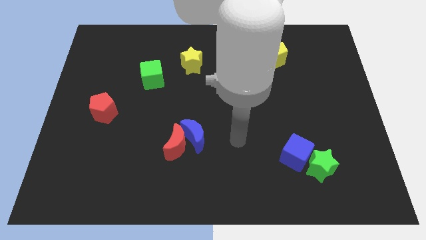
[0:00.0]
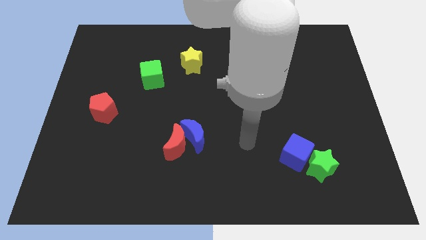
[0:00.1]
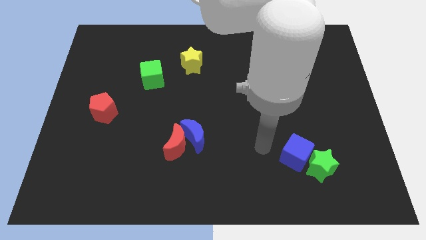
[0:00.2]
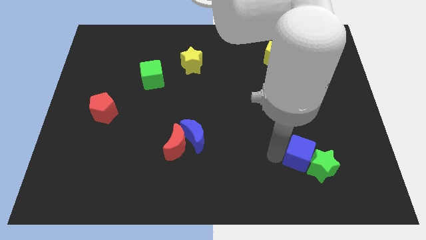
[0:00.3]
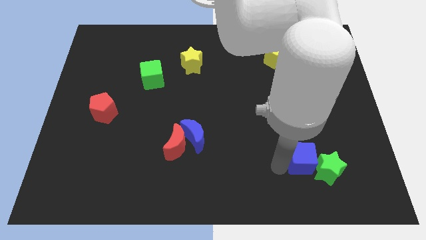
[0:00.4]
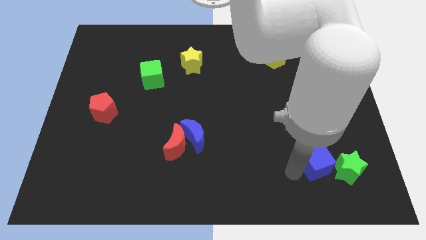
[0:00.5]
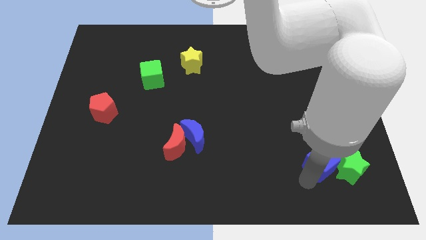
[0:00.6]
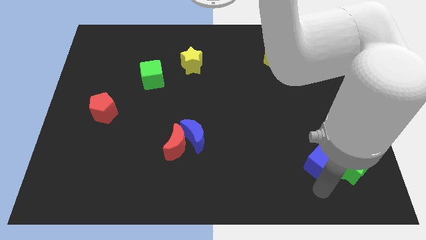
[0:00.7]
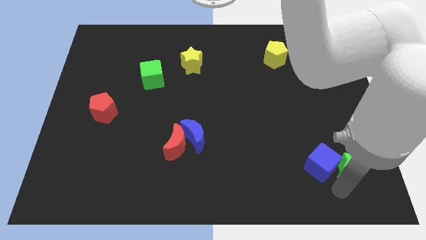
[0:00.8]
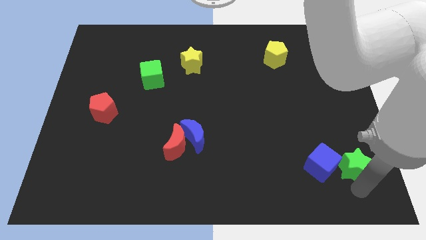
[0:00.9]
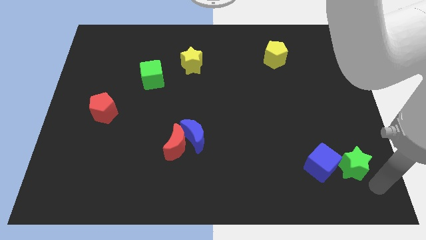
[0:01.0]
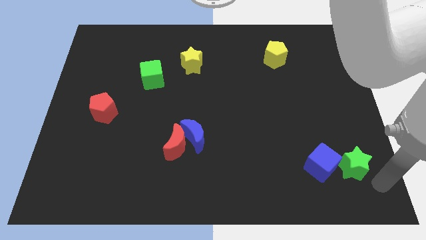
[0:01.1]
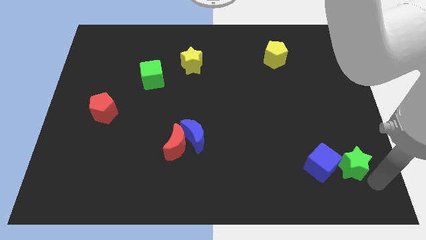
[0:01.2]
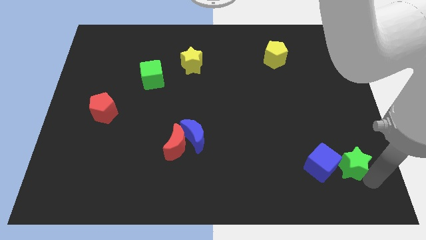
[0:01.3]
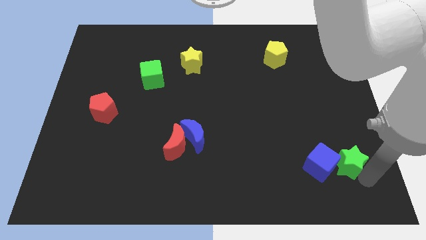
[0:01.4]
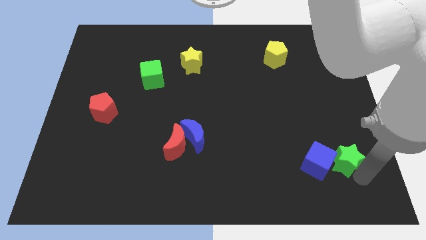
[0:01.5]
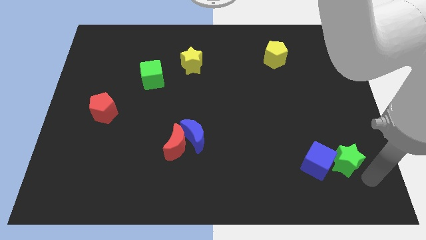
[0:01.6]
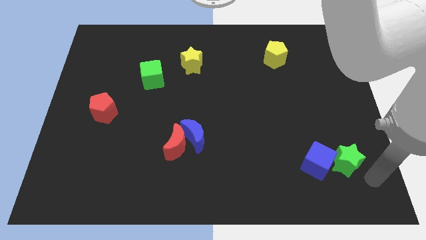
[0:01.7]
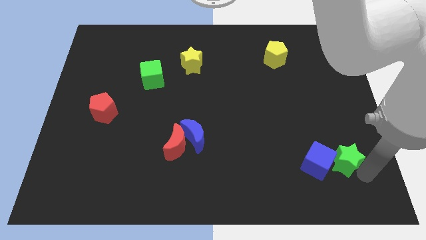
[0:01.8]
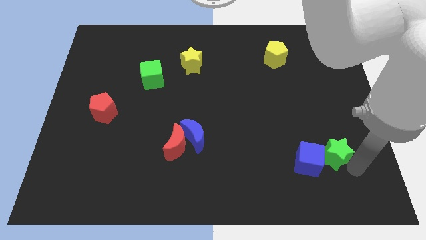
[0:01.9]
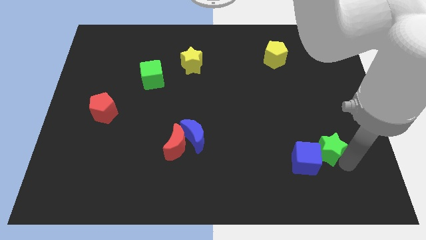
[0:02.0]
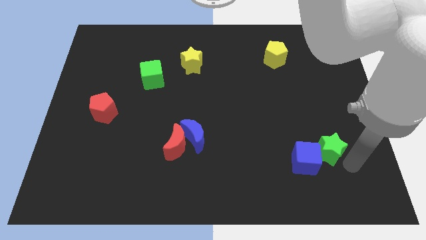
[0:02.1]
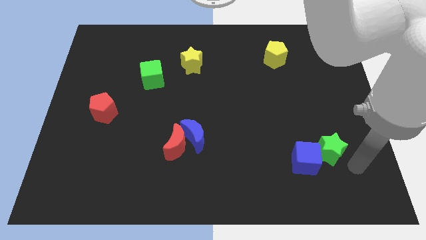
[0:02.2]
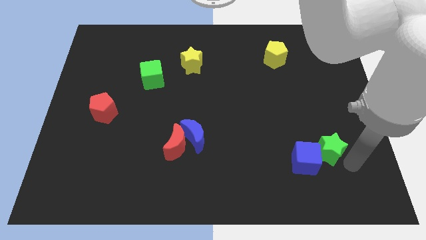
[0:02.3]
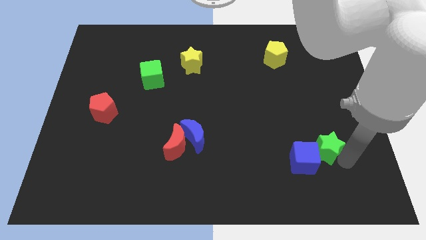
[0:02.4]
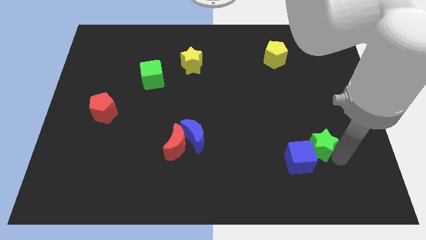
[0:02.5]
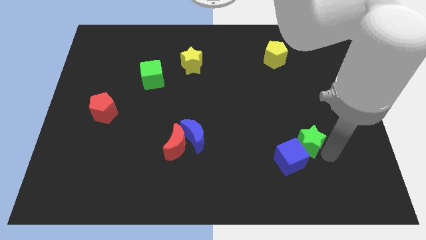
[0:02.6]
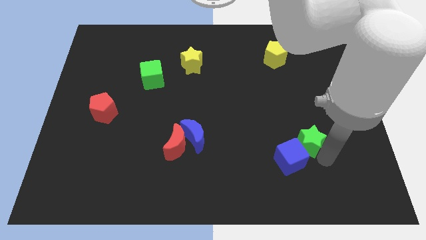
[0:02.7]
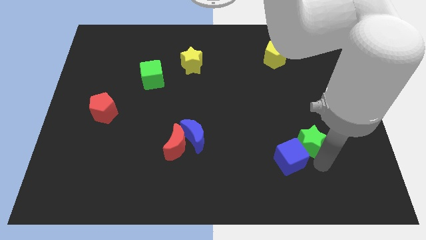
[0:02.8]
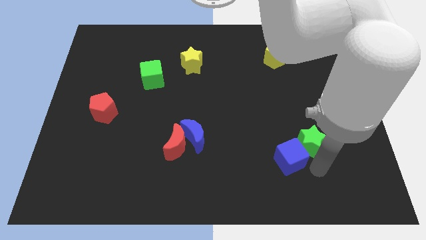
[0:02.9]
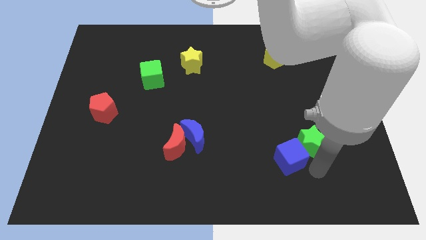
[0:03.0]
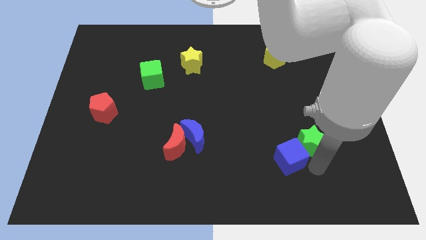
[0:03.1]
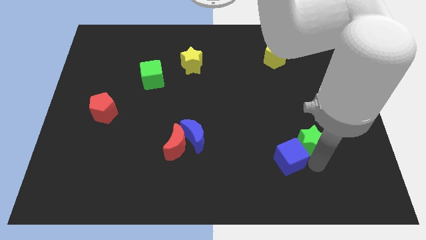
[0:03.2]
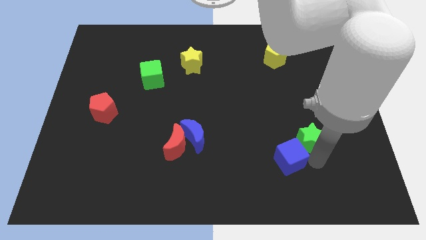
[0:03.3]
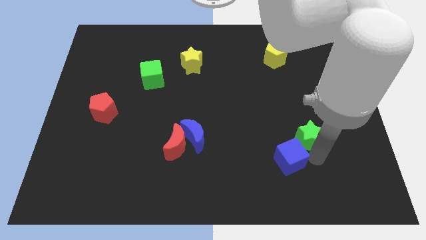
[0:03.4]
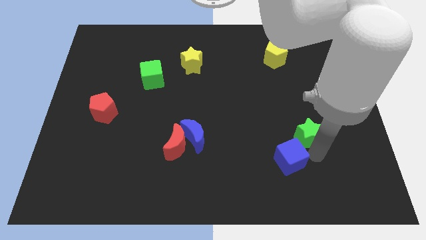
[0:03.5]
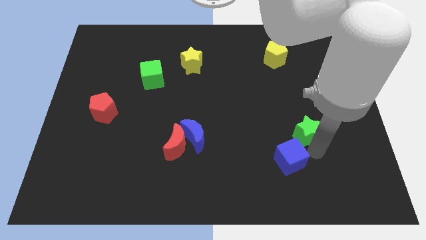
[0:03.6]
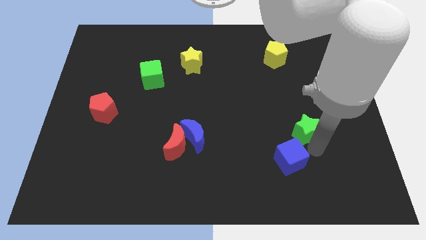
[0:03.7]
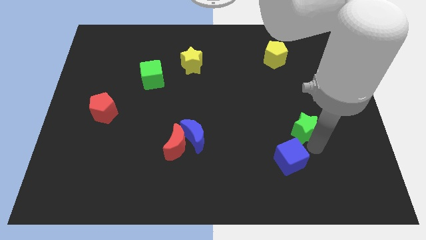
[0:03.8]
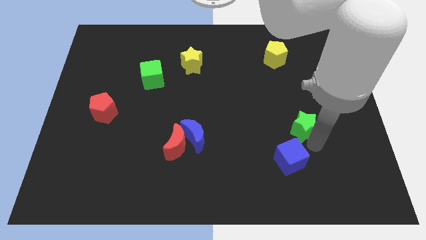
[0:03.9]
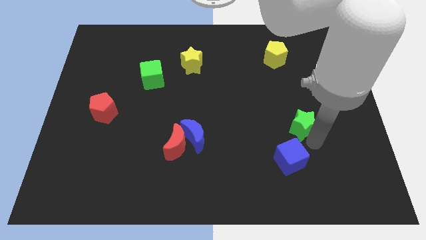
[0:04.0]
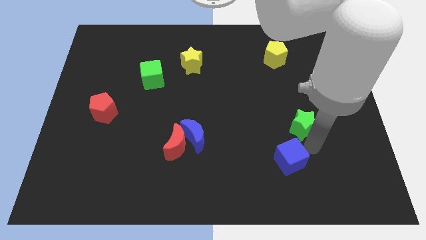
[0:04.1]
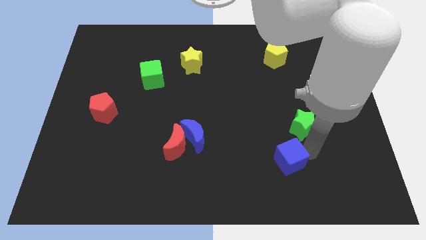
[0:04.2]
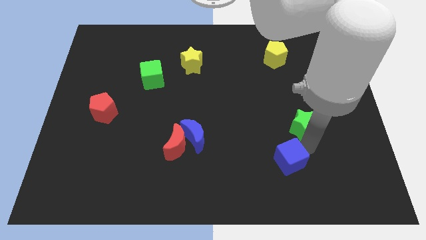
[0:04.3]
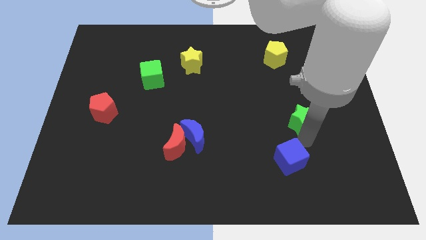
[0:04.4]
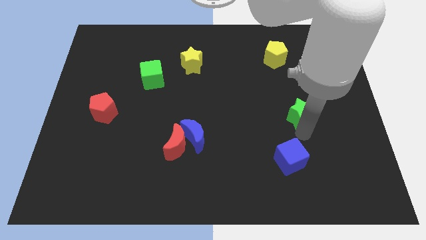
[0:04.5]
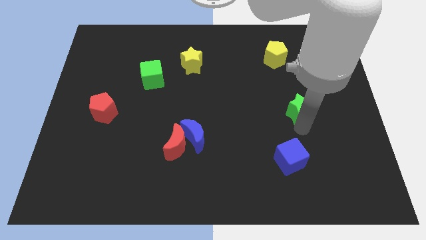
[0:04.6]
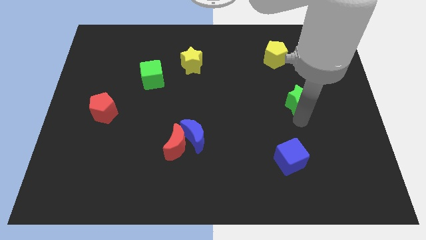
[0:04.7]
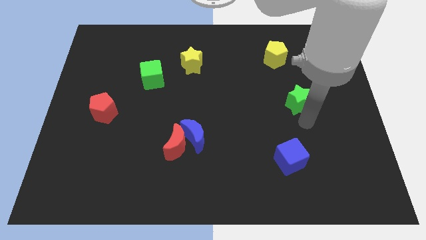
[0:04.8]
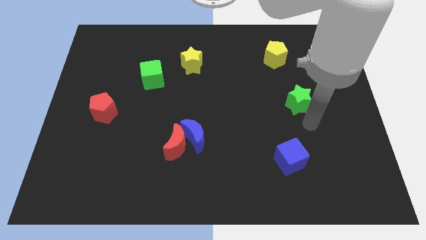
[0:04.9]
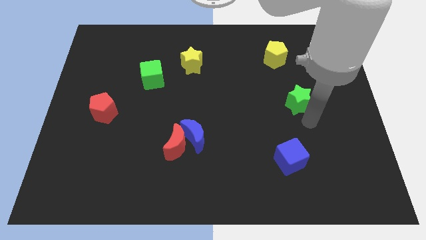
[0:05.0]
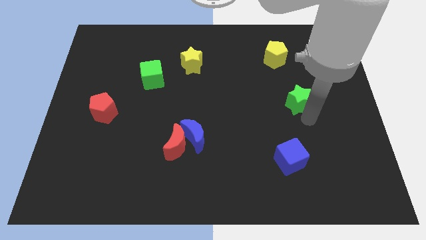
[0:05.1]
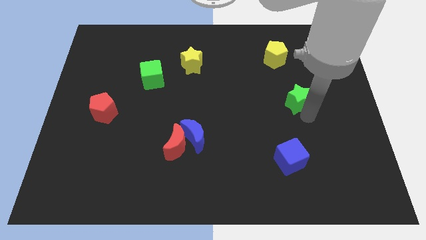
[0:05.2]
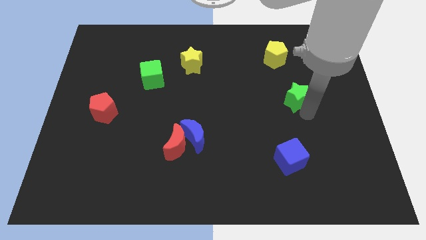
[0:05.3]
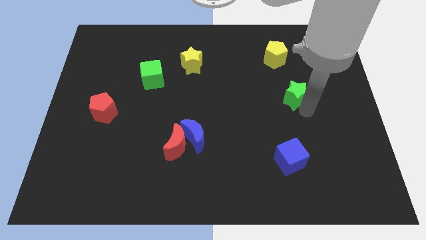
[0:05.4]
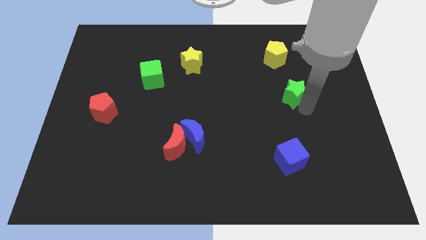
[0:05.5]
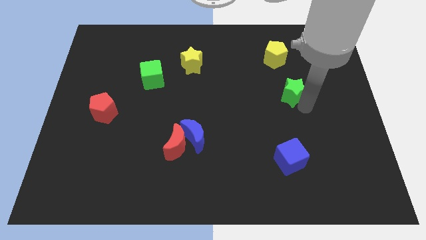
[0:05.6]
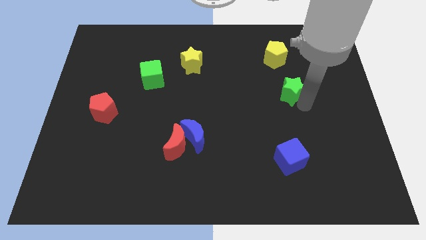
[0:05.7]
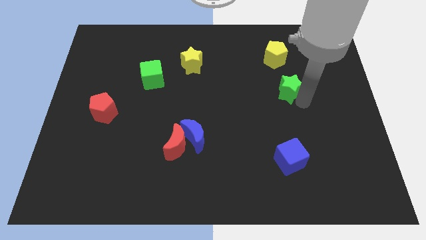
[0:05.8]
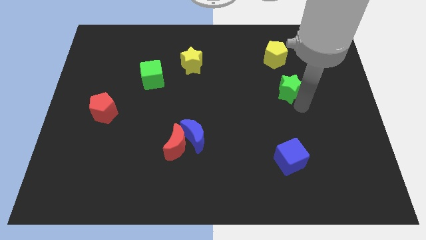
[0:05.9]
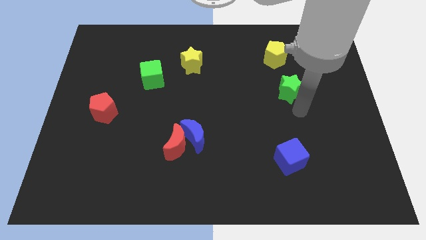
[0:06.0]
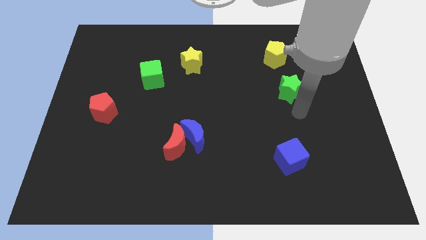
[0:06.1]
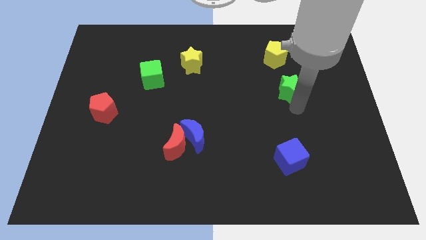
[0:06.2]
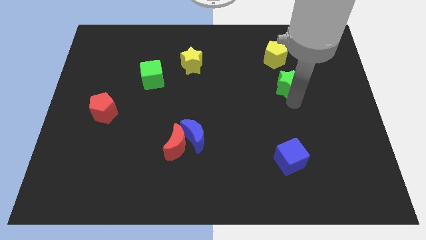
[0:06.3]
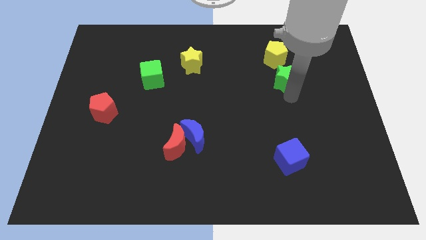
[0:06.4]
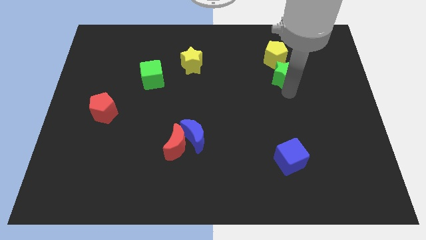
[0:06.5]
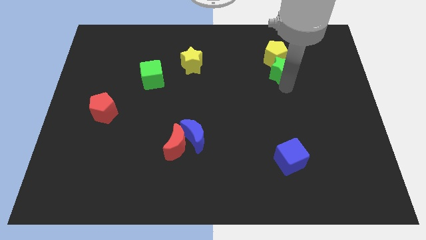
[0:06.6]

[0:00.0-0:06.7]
put the green star next to the yellow pentagon
